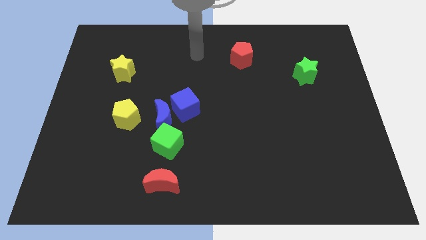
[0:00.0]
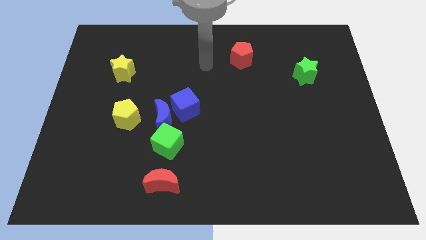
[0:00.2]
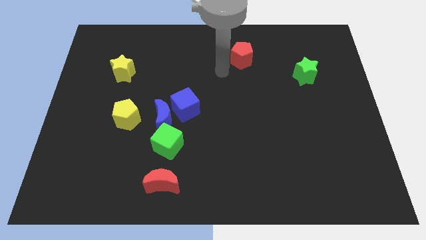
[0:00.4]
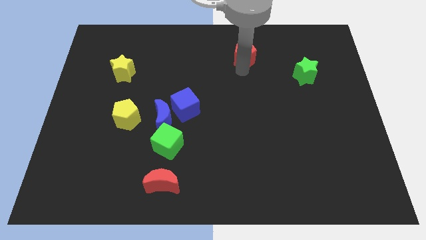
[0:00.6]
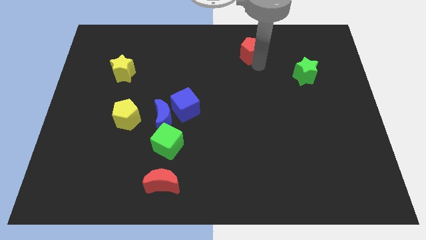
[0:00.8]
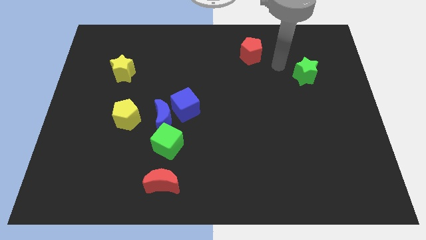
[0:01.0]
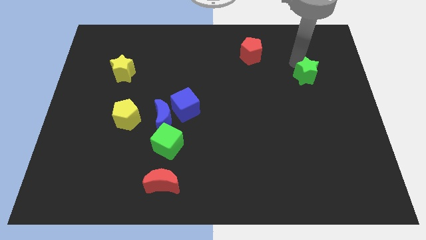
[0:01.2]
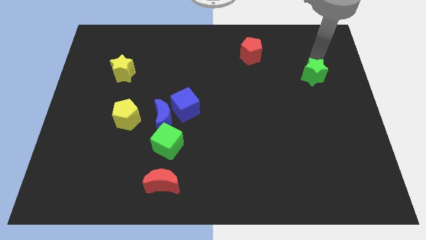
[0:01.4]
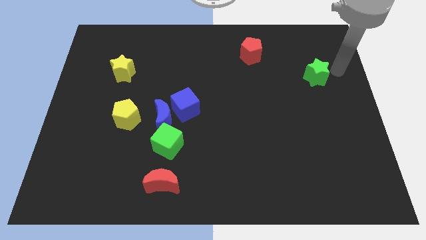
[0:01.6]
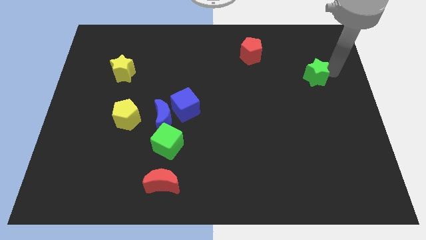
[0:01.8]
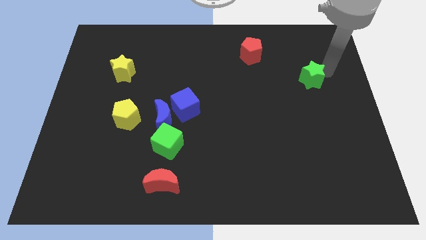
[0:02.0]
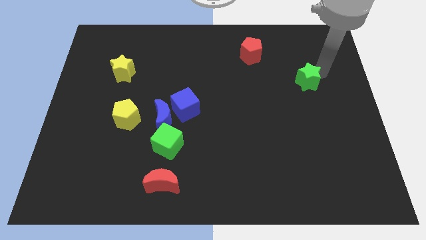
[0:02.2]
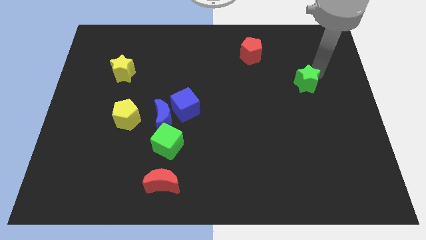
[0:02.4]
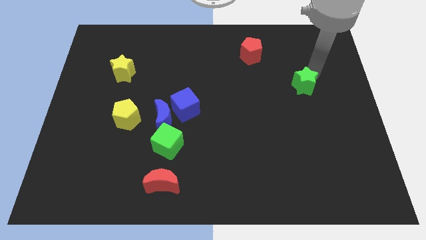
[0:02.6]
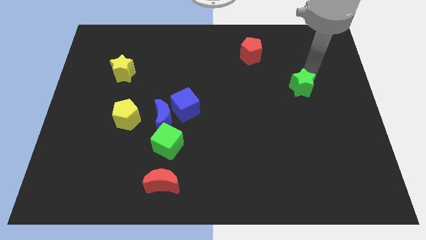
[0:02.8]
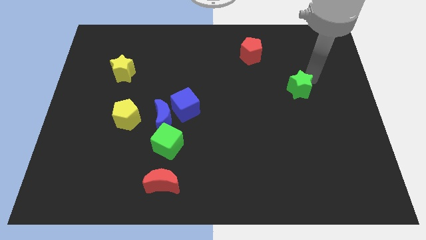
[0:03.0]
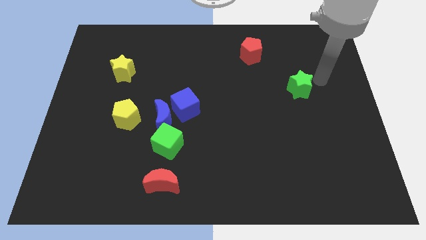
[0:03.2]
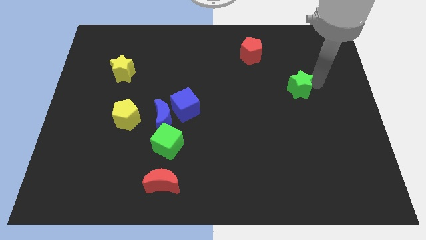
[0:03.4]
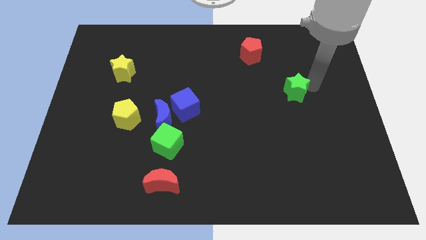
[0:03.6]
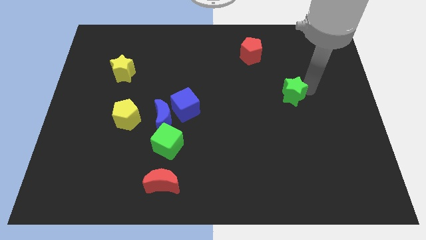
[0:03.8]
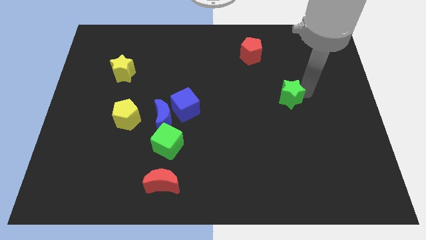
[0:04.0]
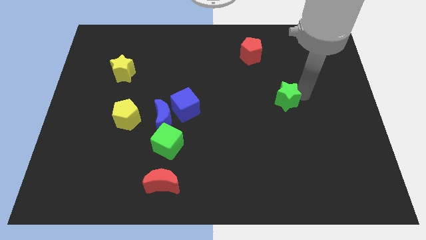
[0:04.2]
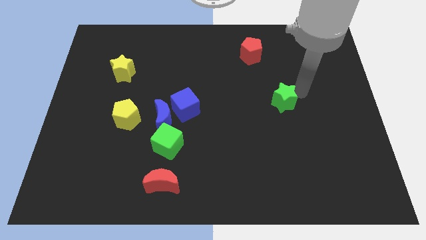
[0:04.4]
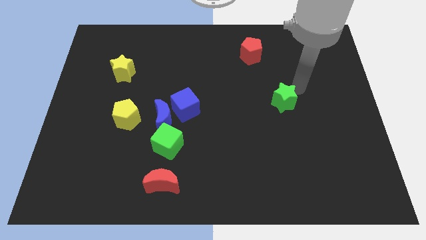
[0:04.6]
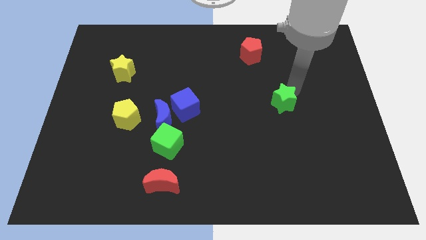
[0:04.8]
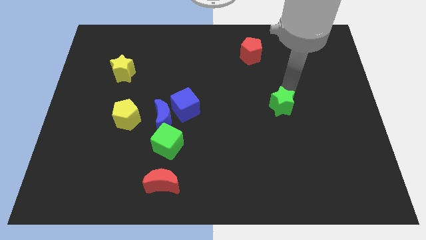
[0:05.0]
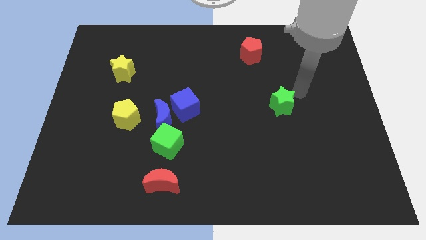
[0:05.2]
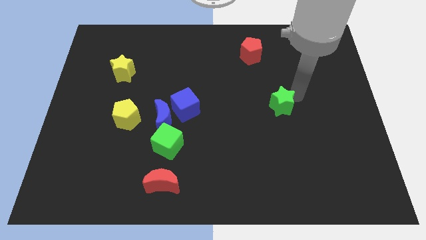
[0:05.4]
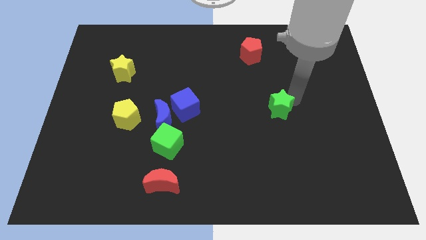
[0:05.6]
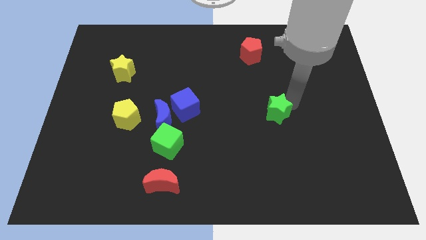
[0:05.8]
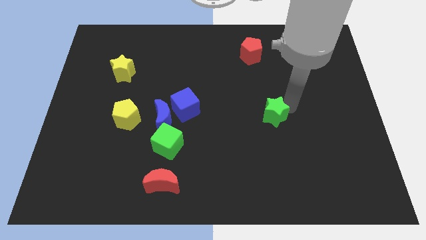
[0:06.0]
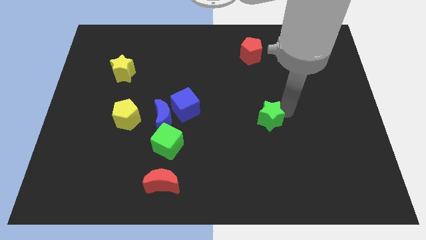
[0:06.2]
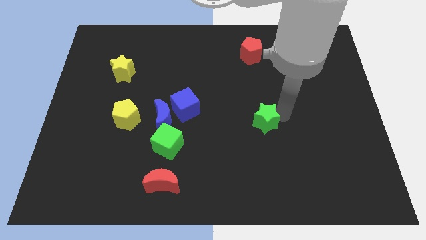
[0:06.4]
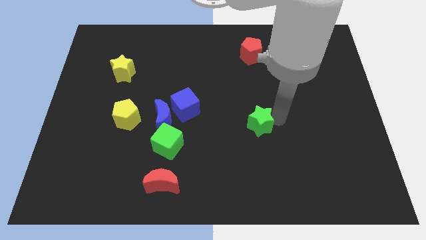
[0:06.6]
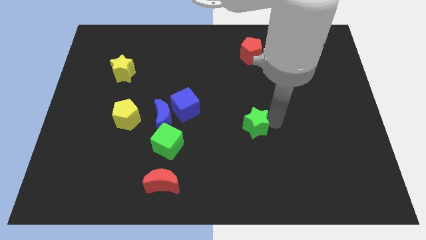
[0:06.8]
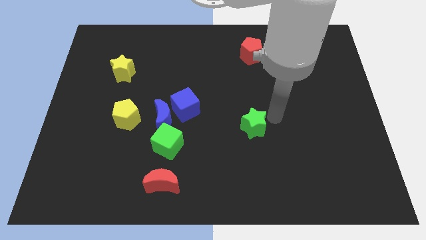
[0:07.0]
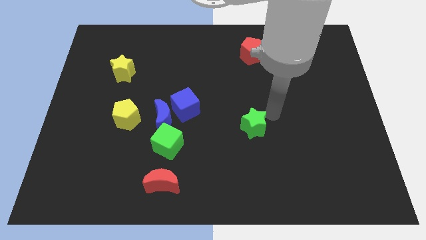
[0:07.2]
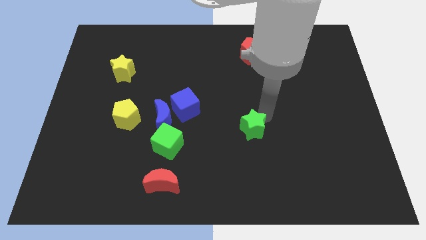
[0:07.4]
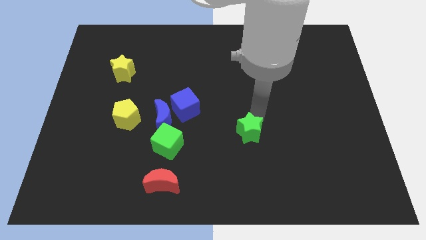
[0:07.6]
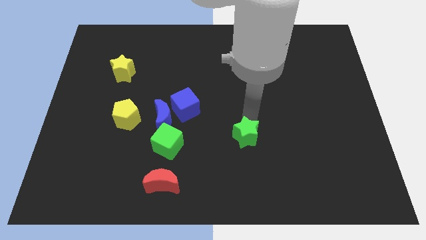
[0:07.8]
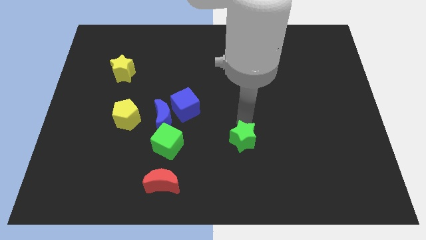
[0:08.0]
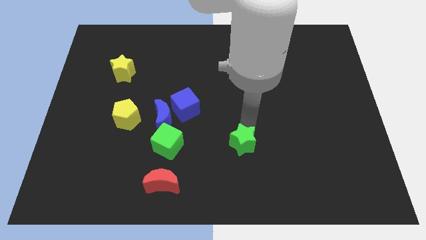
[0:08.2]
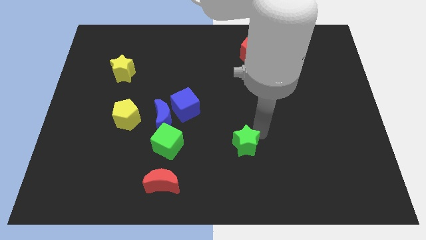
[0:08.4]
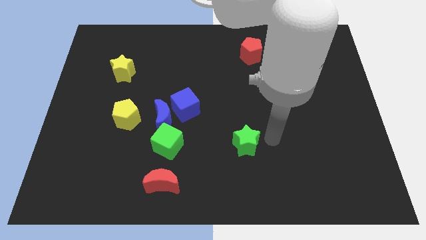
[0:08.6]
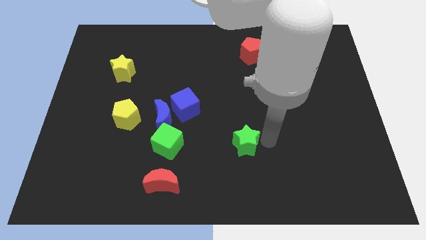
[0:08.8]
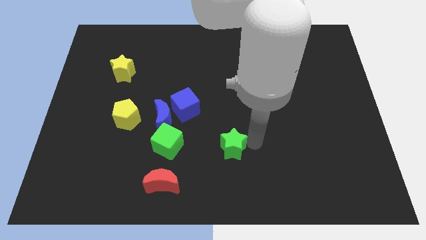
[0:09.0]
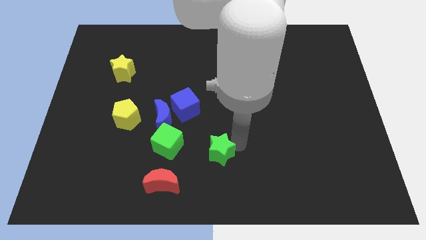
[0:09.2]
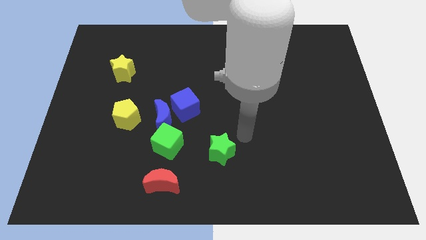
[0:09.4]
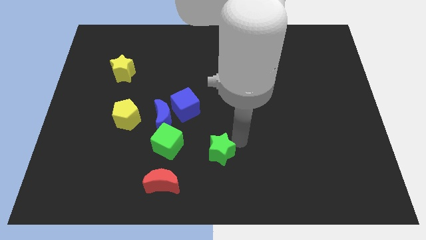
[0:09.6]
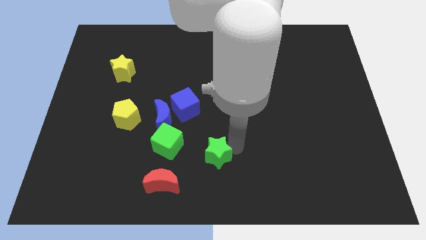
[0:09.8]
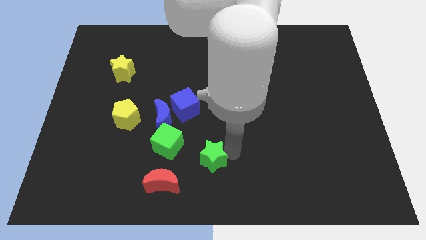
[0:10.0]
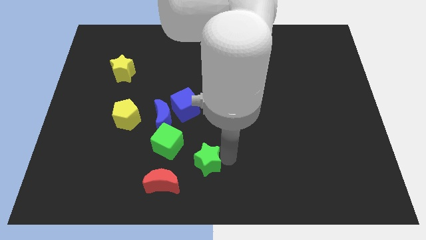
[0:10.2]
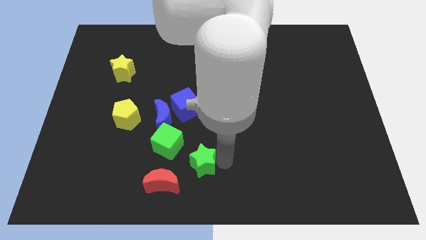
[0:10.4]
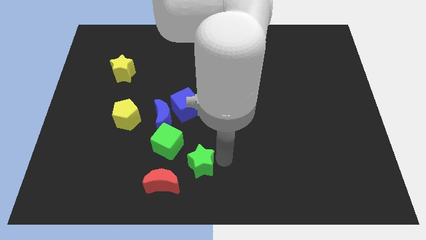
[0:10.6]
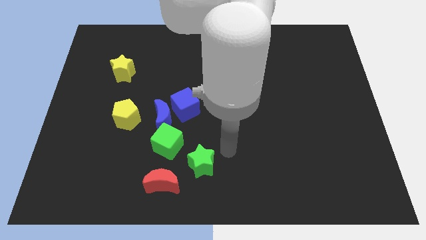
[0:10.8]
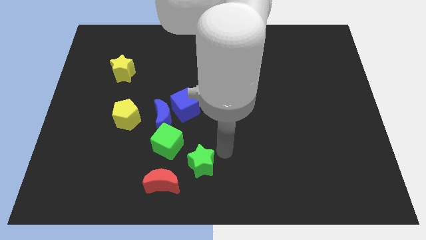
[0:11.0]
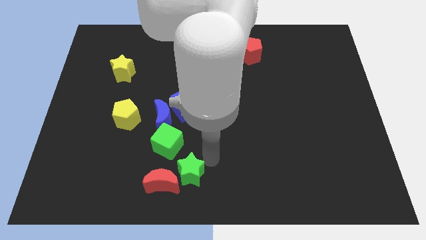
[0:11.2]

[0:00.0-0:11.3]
slide the green star towards the red moon

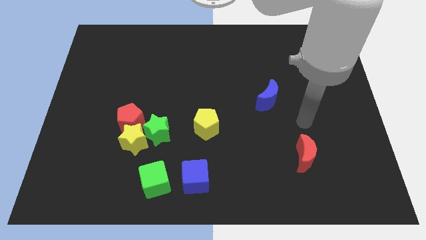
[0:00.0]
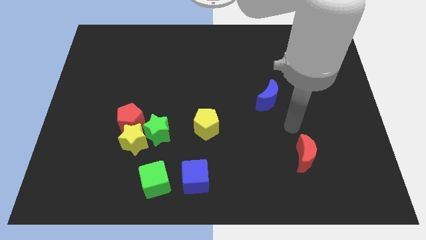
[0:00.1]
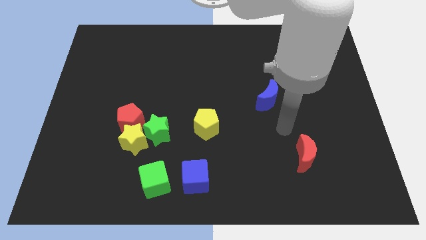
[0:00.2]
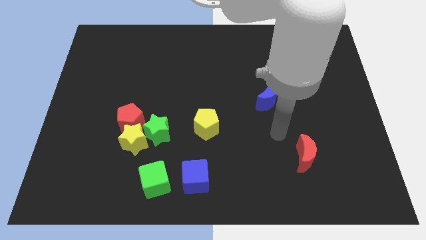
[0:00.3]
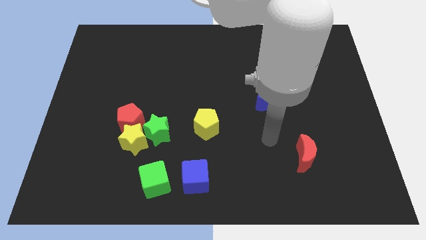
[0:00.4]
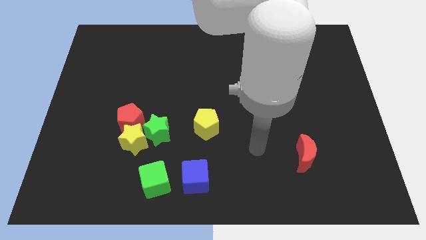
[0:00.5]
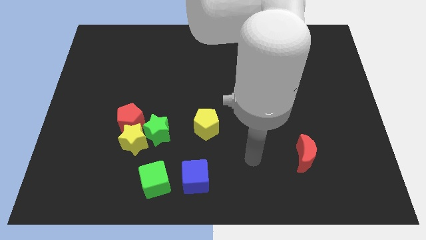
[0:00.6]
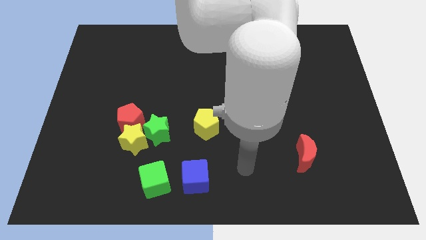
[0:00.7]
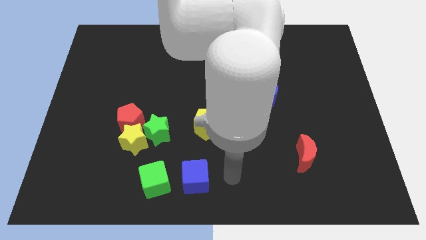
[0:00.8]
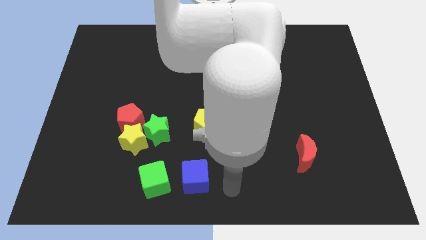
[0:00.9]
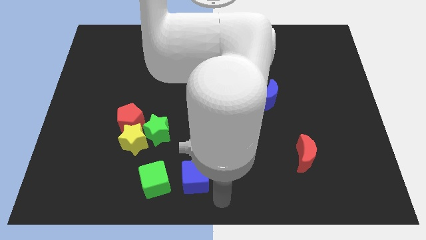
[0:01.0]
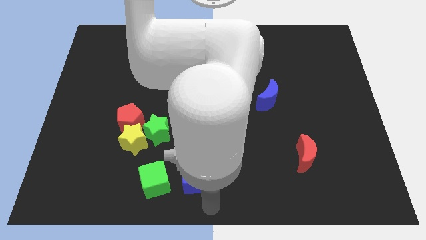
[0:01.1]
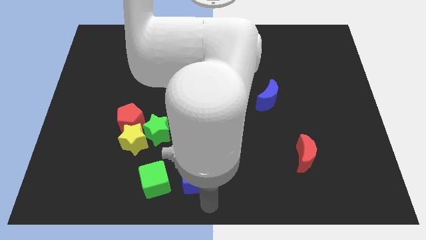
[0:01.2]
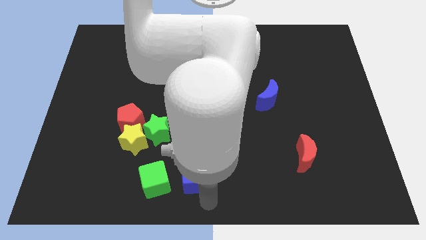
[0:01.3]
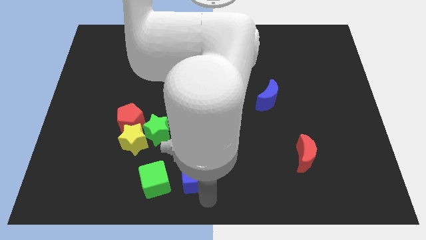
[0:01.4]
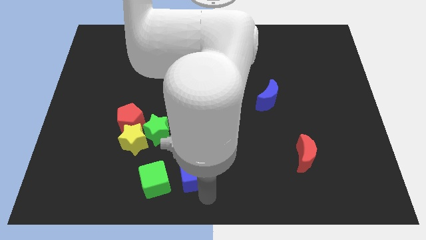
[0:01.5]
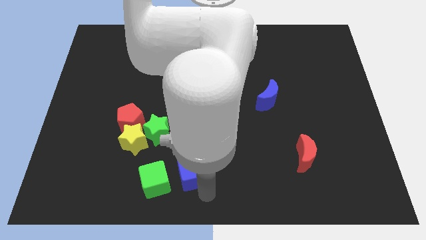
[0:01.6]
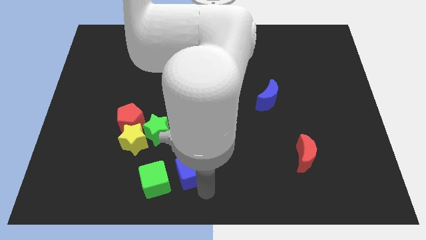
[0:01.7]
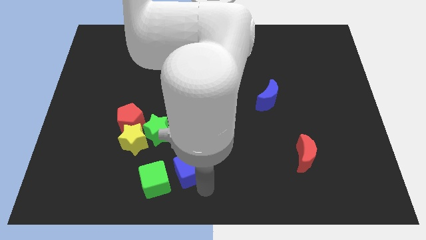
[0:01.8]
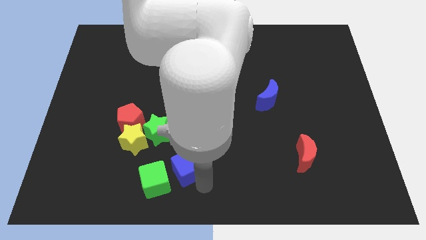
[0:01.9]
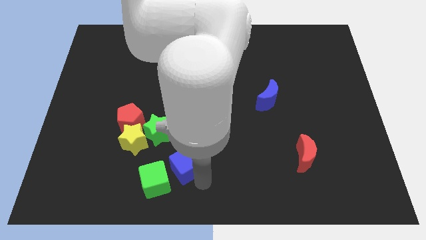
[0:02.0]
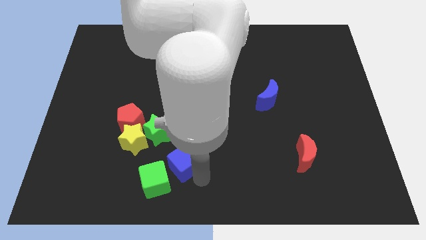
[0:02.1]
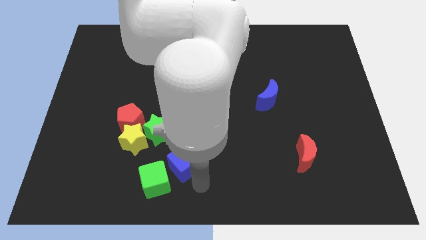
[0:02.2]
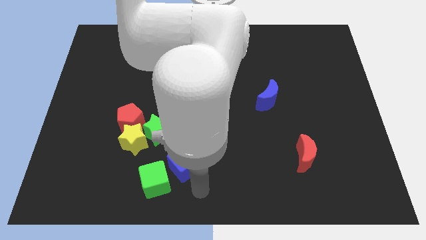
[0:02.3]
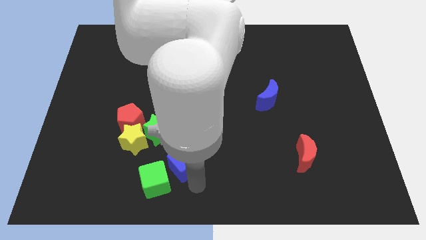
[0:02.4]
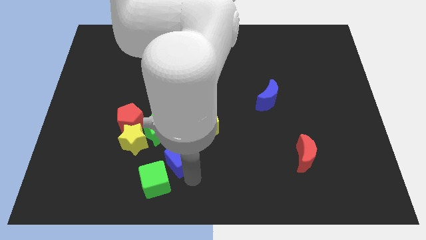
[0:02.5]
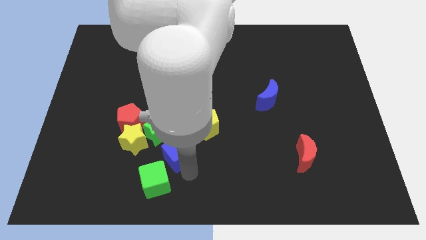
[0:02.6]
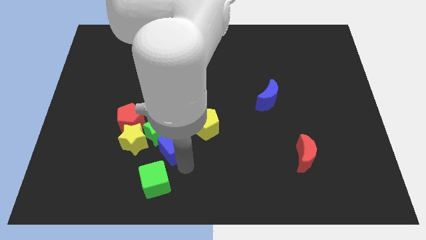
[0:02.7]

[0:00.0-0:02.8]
put the blue cube next to the green star
